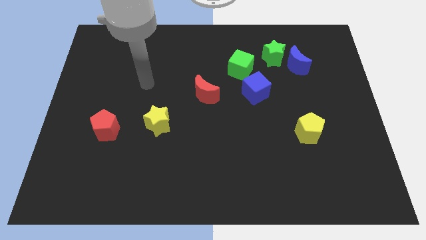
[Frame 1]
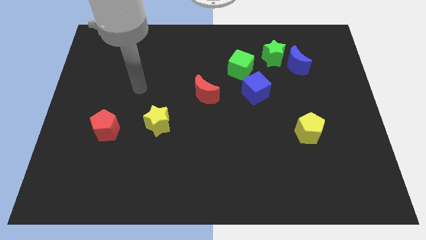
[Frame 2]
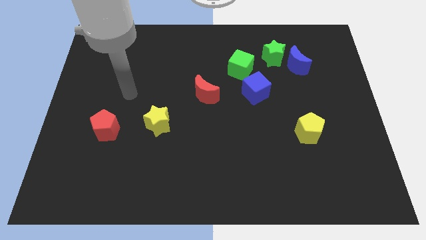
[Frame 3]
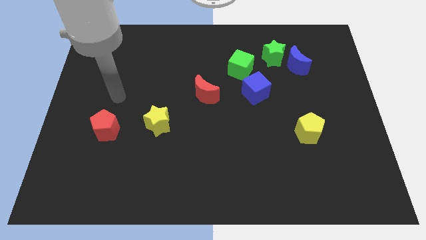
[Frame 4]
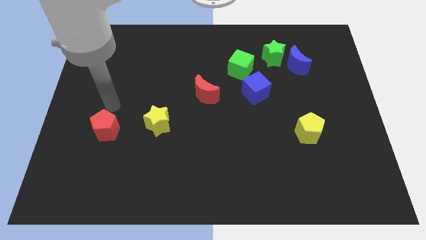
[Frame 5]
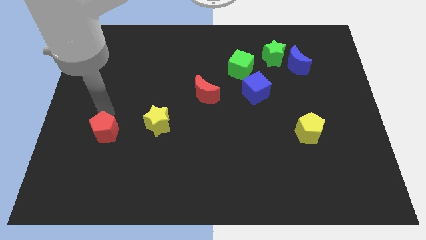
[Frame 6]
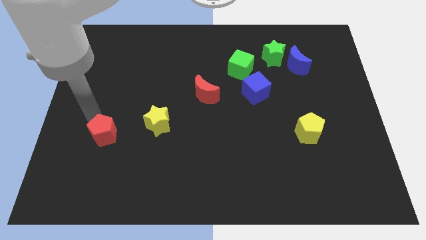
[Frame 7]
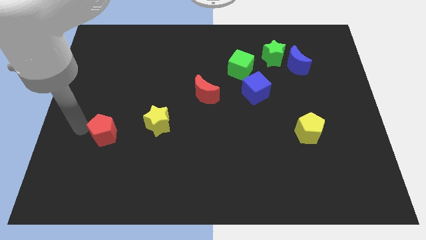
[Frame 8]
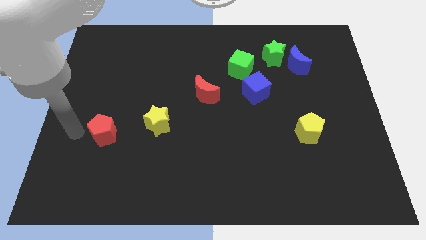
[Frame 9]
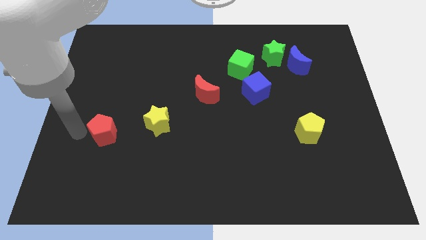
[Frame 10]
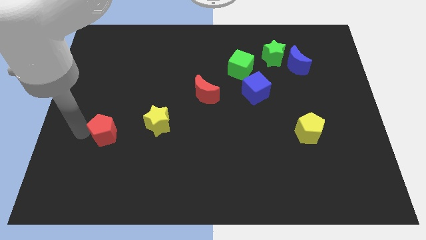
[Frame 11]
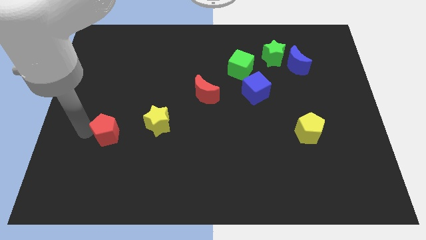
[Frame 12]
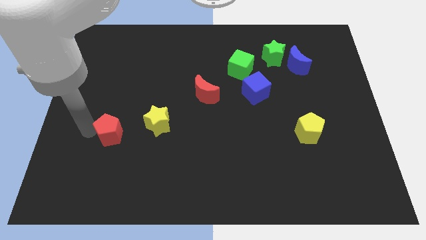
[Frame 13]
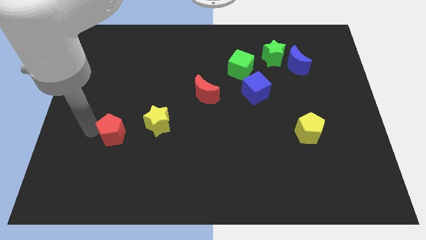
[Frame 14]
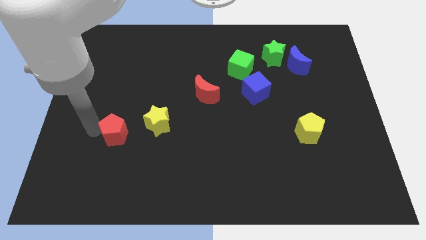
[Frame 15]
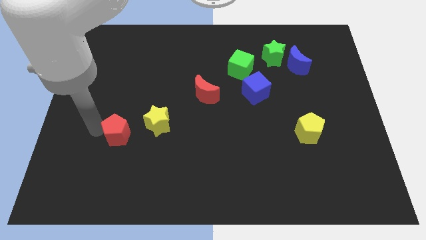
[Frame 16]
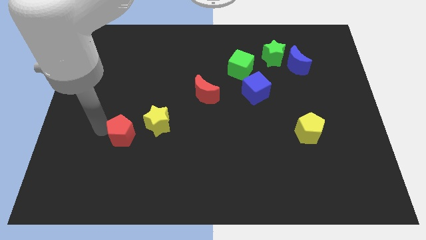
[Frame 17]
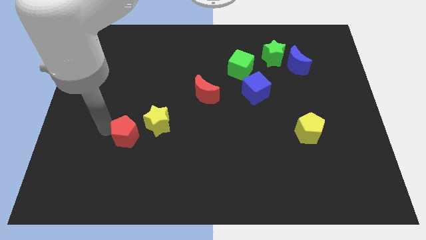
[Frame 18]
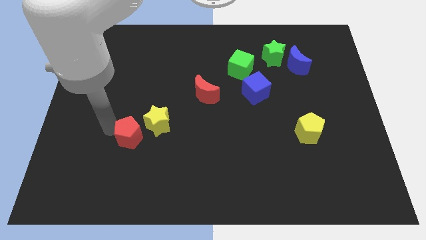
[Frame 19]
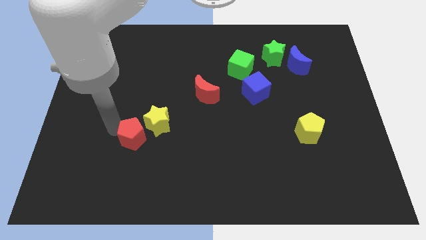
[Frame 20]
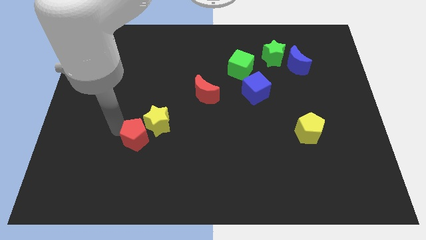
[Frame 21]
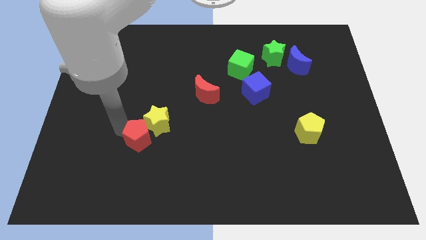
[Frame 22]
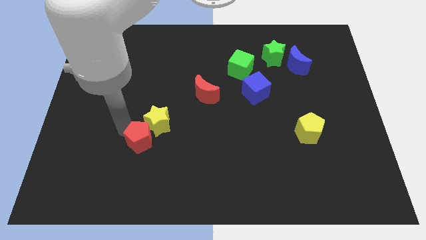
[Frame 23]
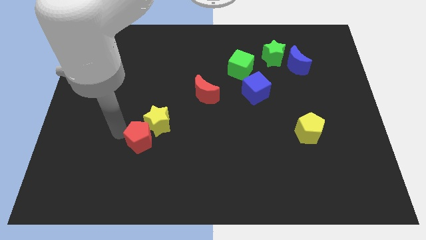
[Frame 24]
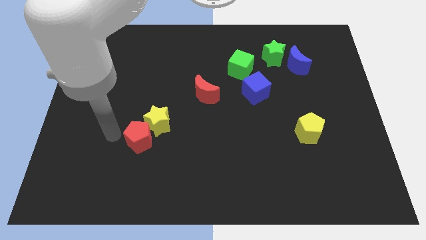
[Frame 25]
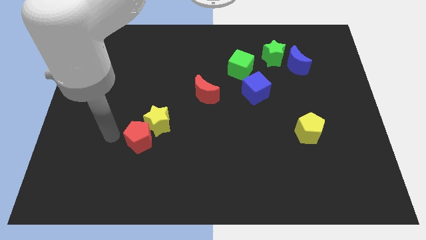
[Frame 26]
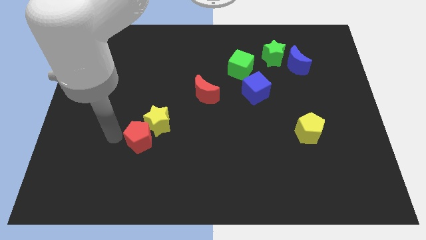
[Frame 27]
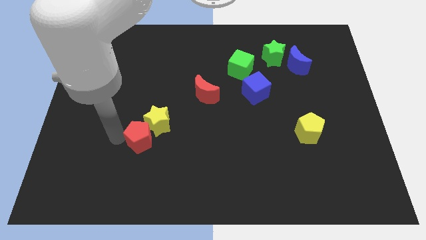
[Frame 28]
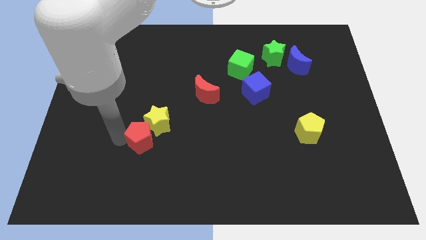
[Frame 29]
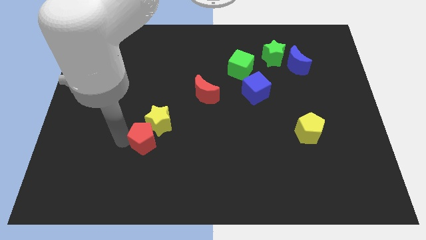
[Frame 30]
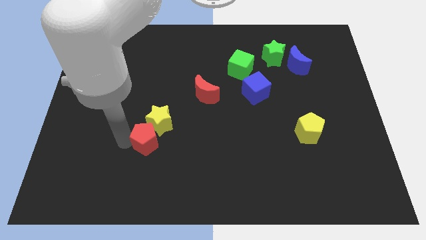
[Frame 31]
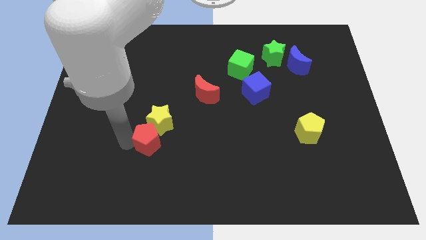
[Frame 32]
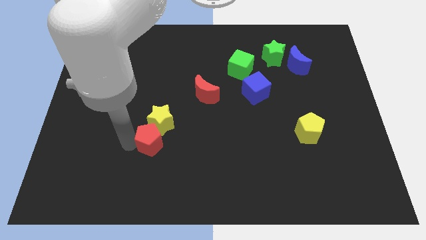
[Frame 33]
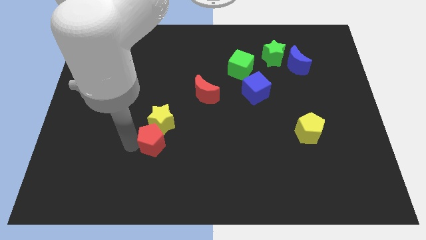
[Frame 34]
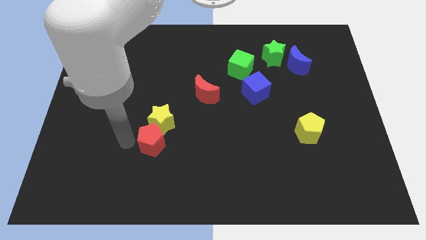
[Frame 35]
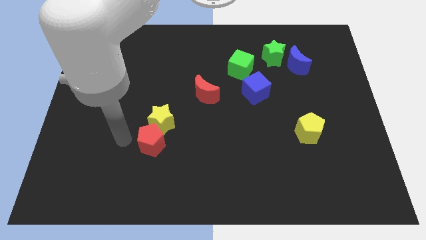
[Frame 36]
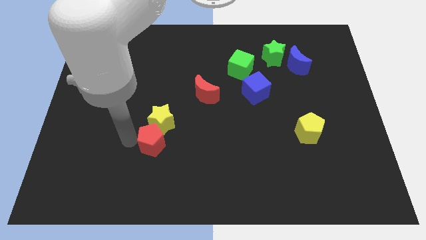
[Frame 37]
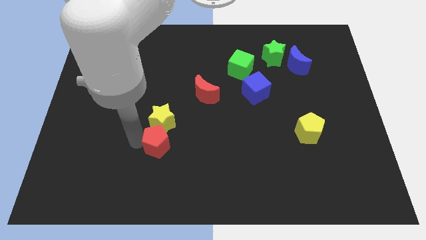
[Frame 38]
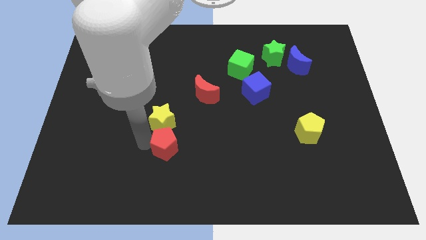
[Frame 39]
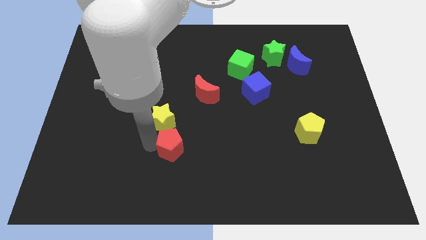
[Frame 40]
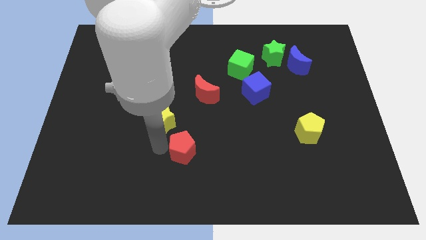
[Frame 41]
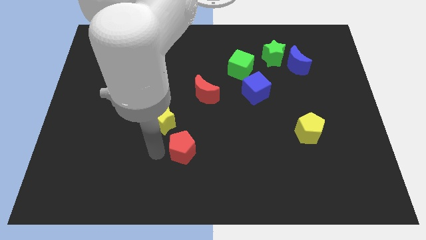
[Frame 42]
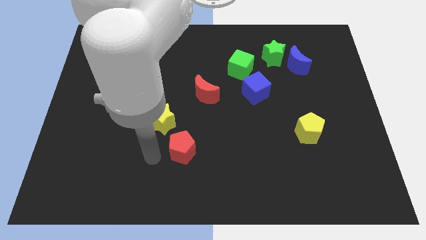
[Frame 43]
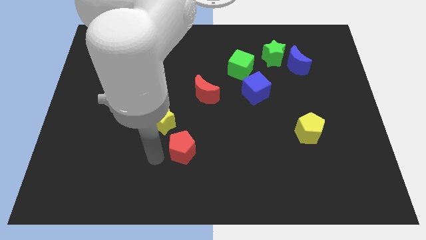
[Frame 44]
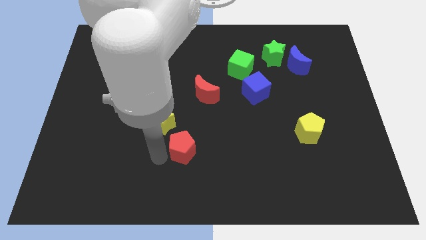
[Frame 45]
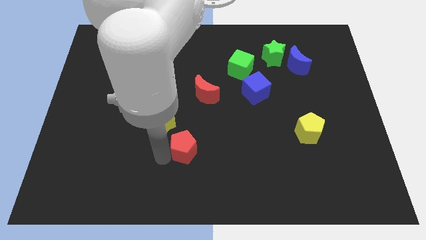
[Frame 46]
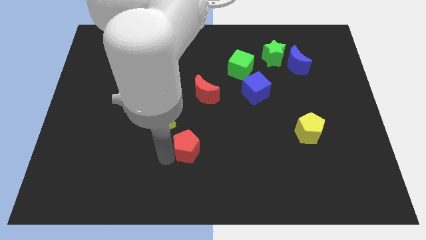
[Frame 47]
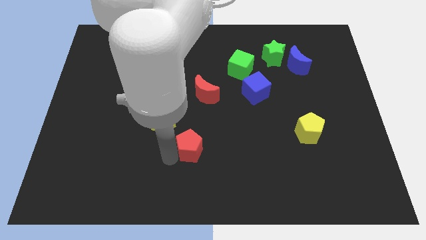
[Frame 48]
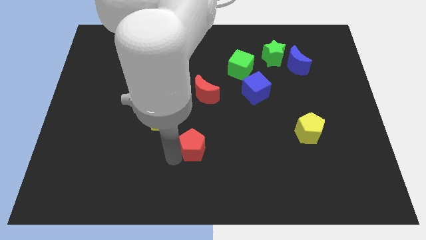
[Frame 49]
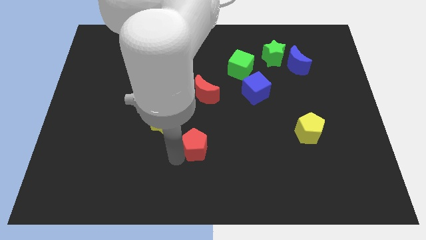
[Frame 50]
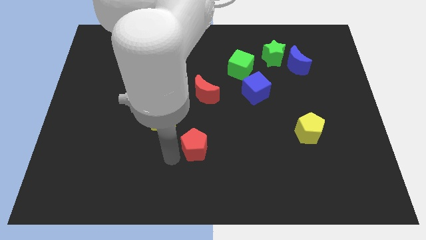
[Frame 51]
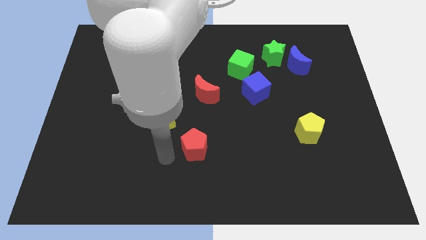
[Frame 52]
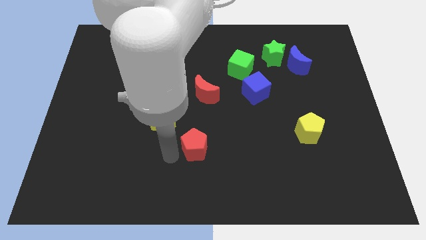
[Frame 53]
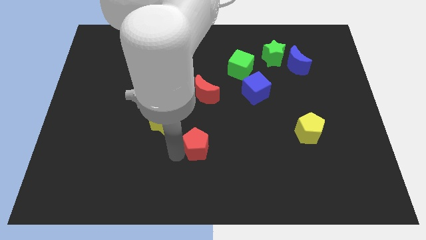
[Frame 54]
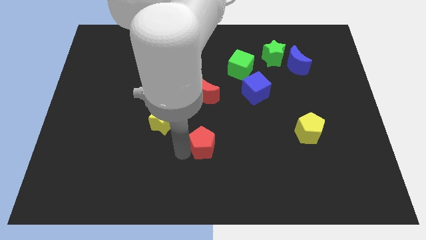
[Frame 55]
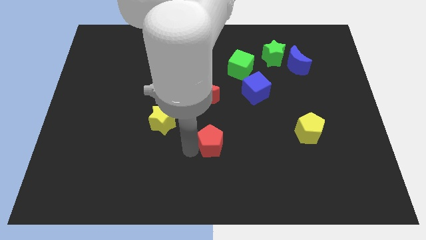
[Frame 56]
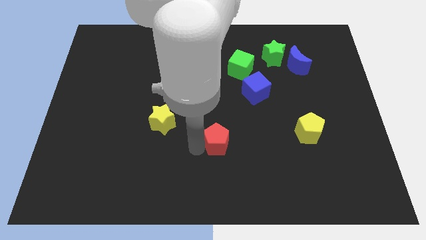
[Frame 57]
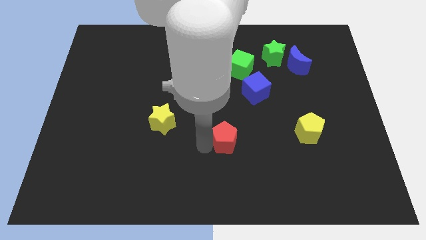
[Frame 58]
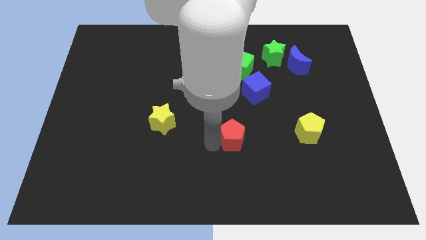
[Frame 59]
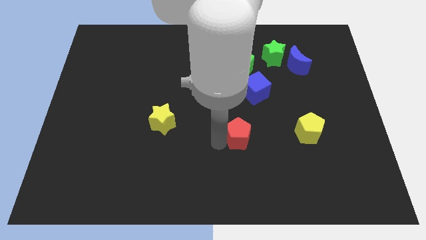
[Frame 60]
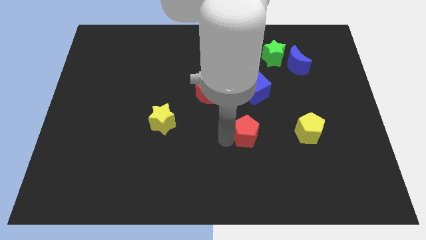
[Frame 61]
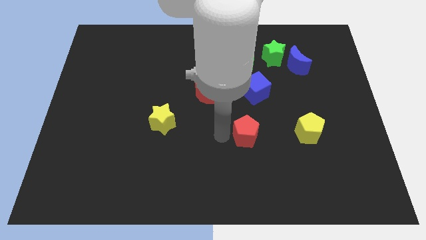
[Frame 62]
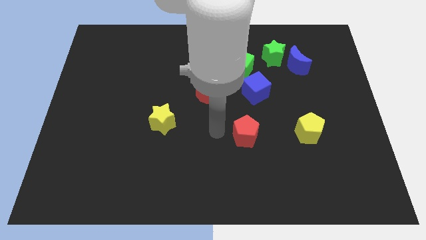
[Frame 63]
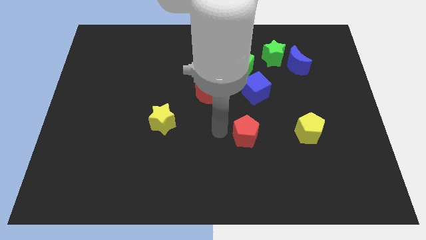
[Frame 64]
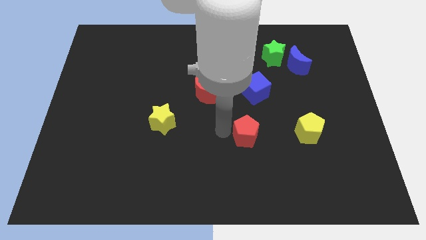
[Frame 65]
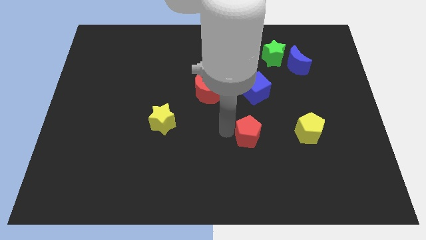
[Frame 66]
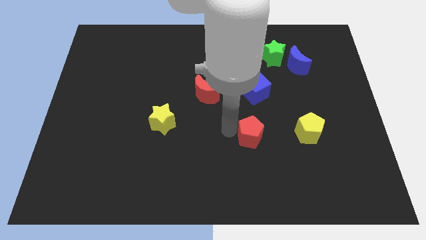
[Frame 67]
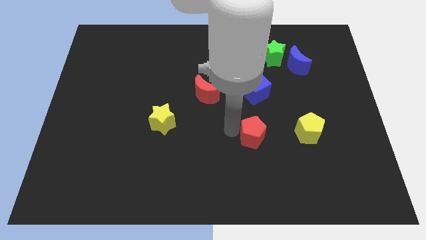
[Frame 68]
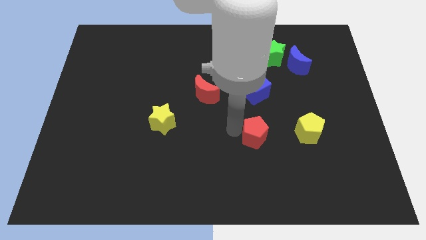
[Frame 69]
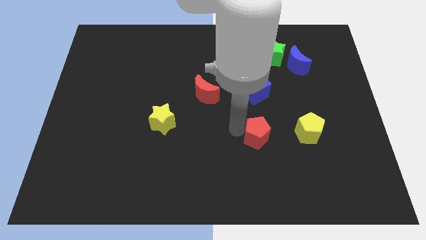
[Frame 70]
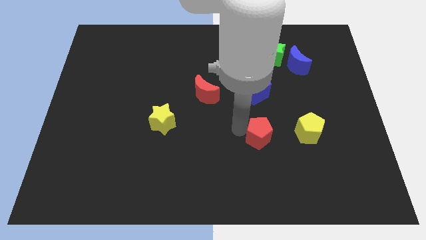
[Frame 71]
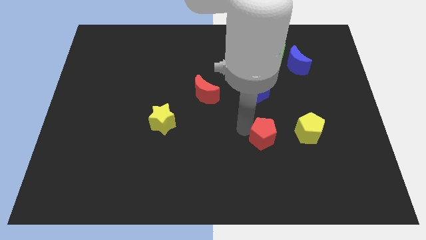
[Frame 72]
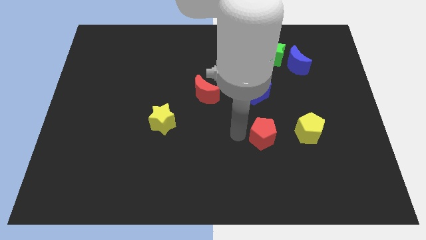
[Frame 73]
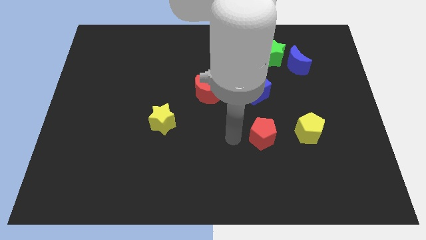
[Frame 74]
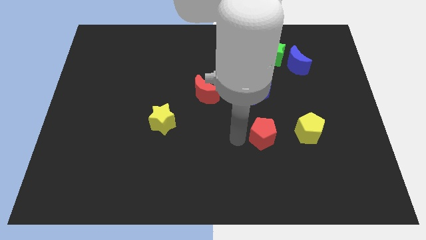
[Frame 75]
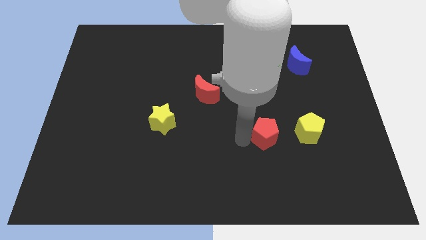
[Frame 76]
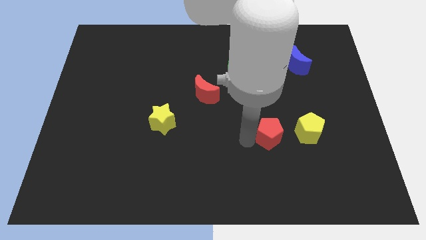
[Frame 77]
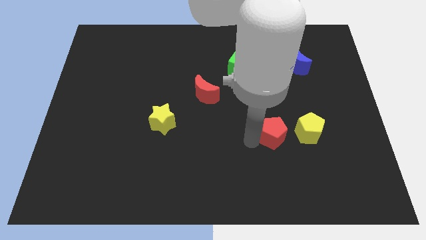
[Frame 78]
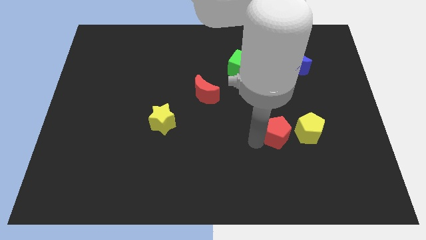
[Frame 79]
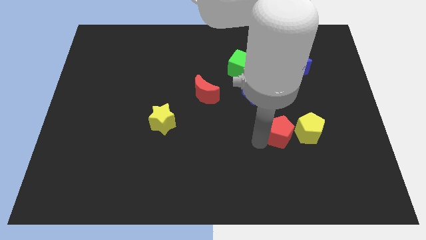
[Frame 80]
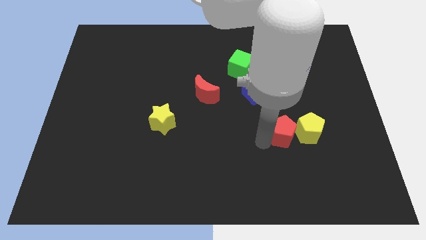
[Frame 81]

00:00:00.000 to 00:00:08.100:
slide the red pentagon next to the yellow pentagon
